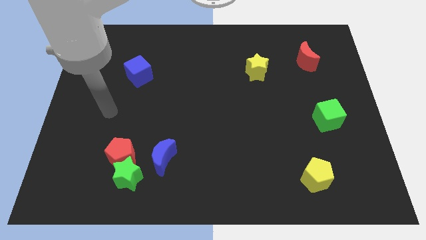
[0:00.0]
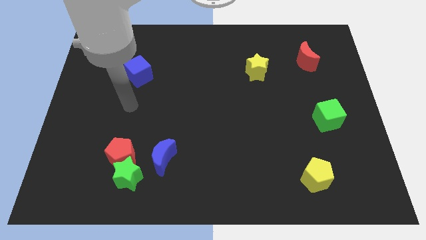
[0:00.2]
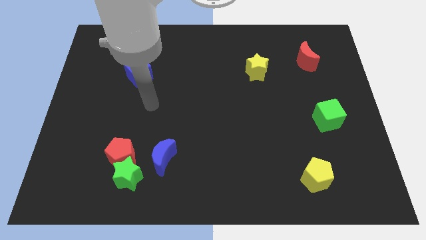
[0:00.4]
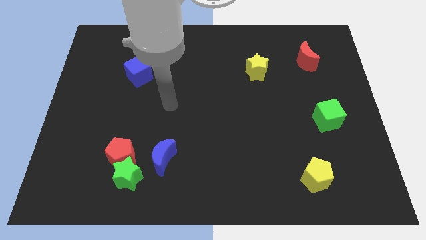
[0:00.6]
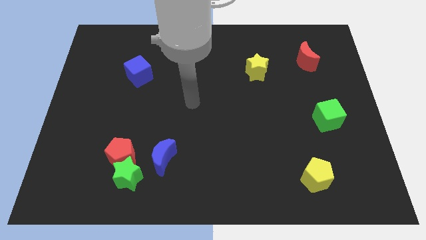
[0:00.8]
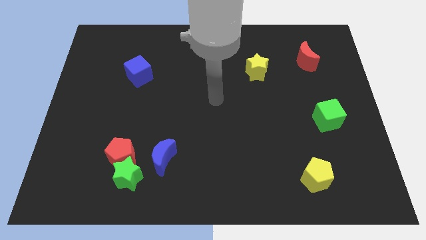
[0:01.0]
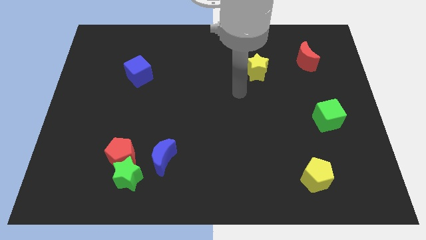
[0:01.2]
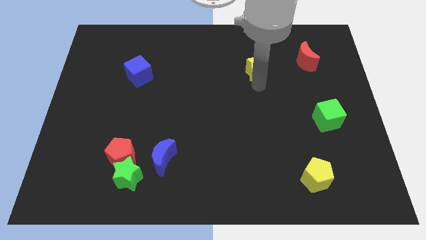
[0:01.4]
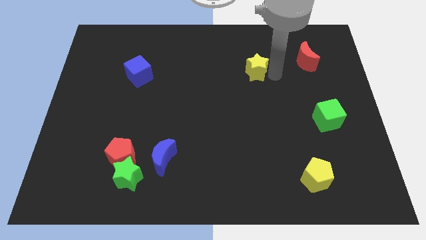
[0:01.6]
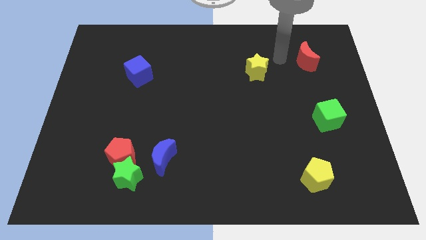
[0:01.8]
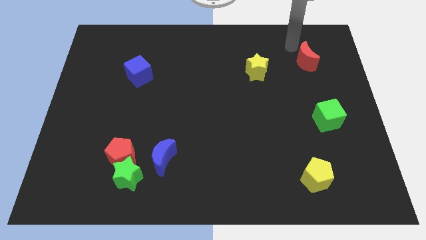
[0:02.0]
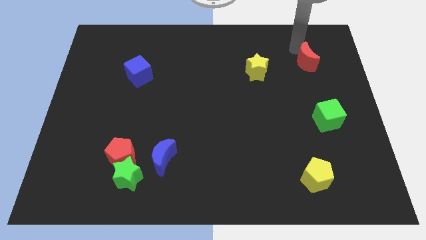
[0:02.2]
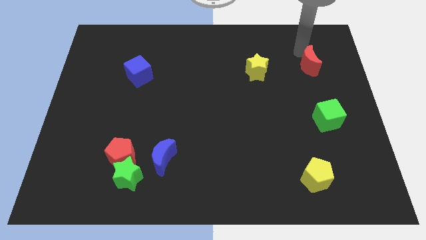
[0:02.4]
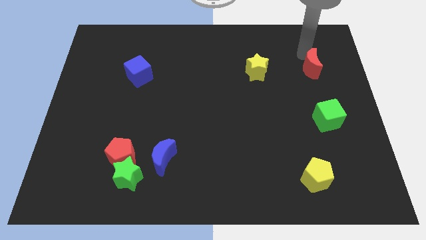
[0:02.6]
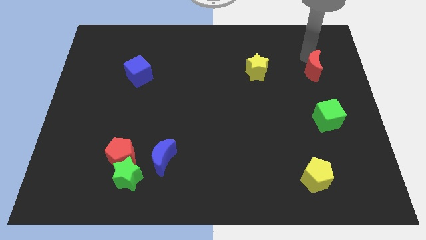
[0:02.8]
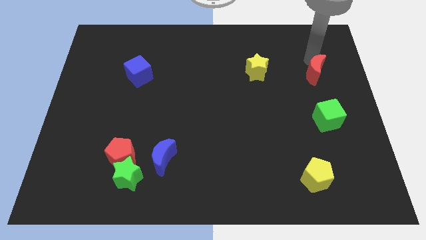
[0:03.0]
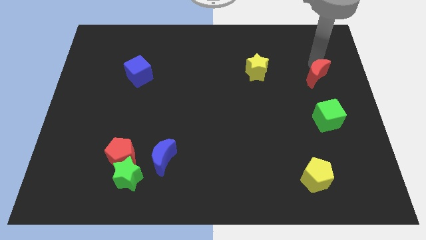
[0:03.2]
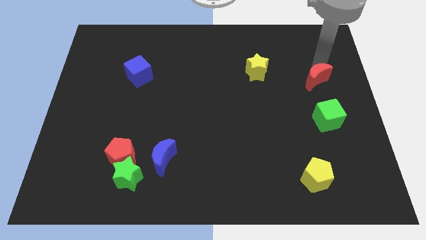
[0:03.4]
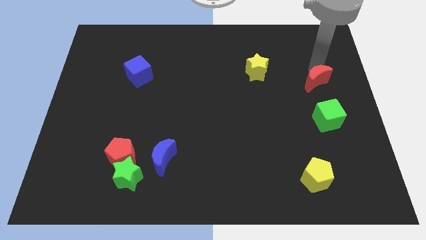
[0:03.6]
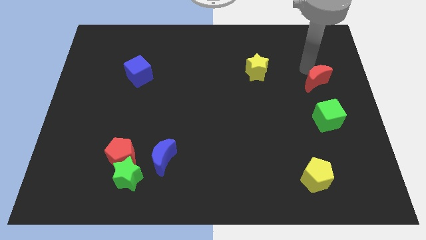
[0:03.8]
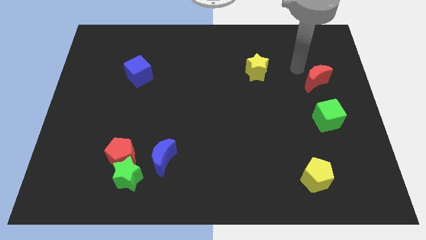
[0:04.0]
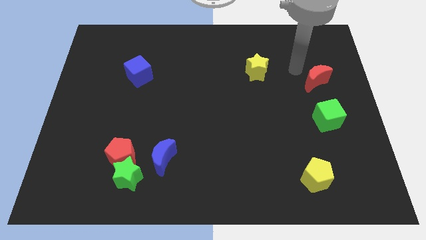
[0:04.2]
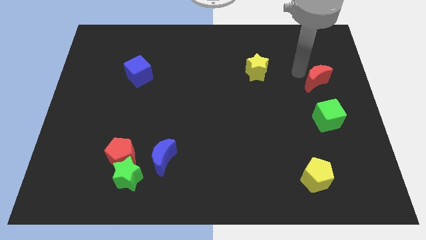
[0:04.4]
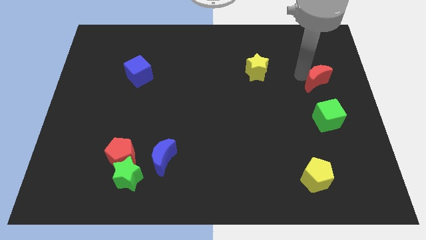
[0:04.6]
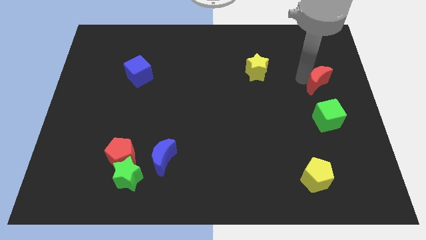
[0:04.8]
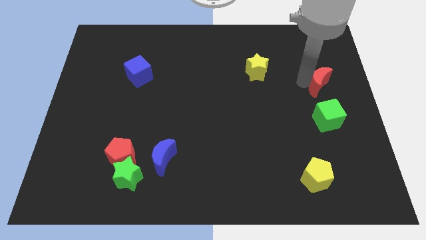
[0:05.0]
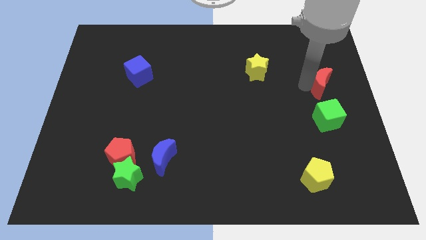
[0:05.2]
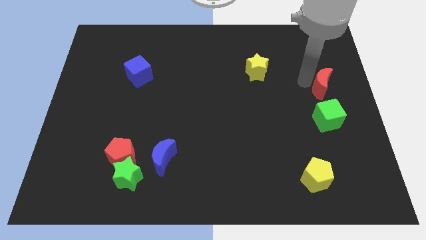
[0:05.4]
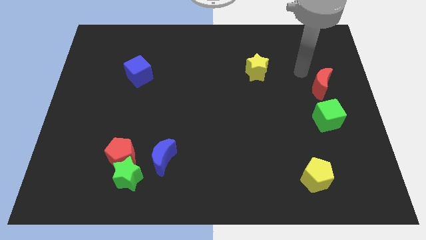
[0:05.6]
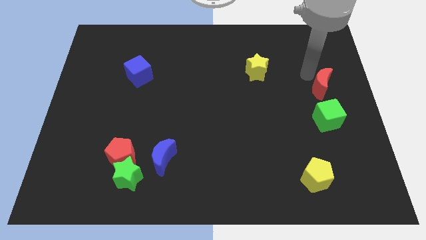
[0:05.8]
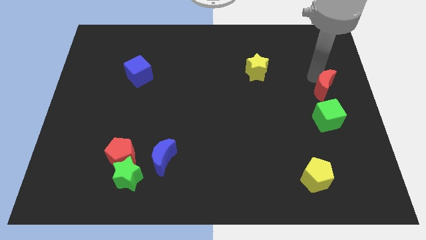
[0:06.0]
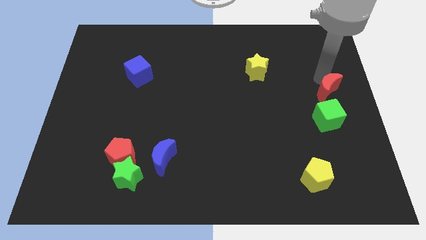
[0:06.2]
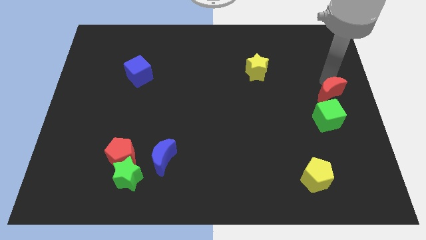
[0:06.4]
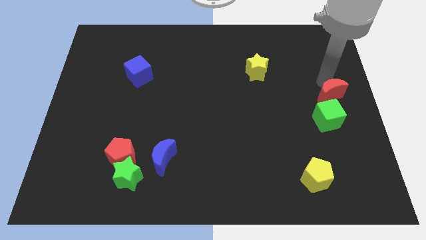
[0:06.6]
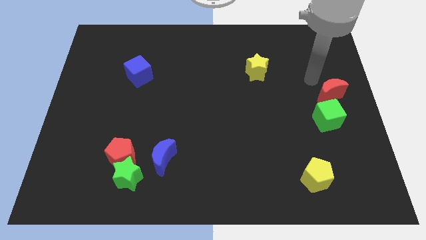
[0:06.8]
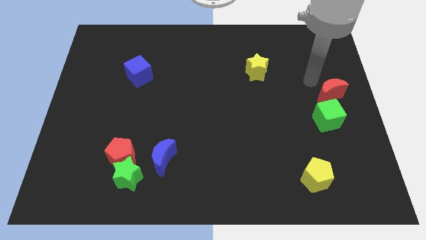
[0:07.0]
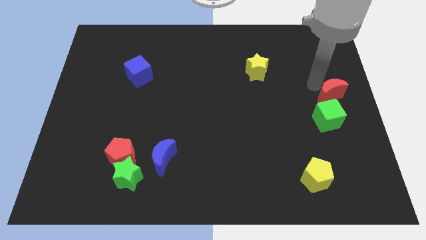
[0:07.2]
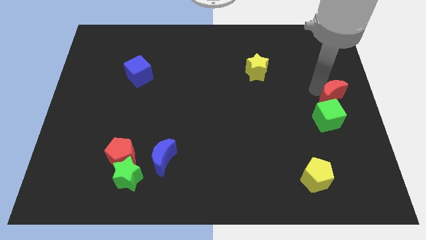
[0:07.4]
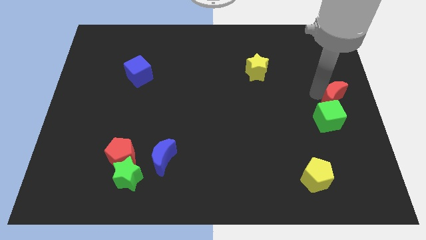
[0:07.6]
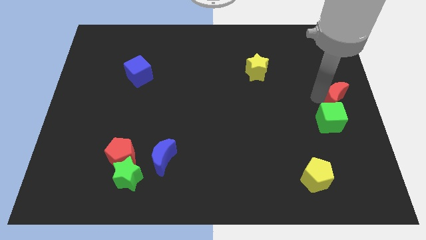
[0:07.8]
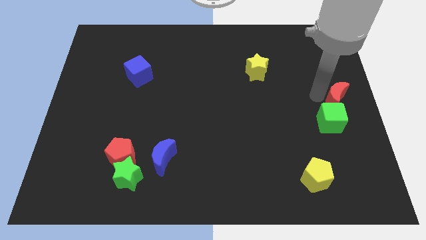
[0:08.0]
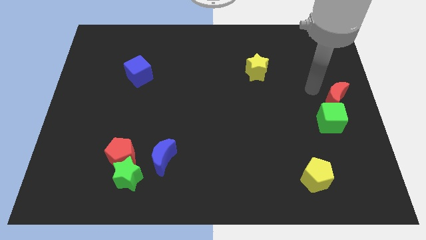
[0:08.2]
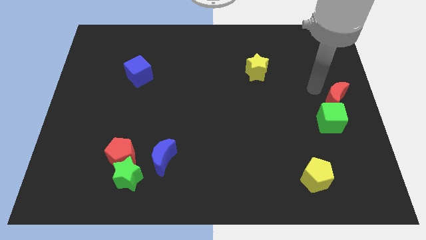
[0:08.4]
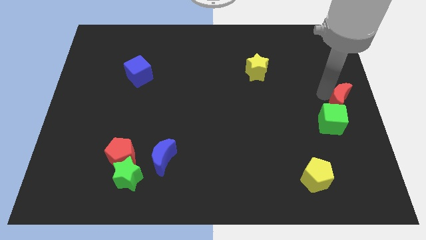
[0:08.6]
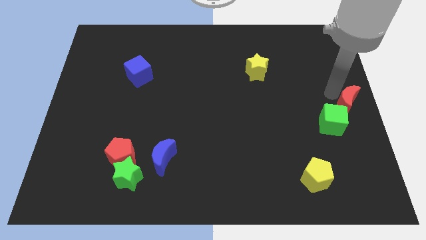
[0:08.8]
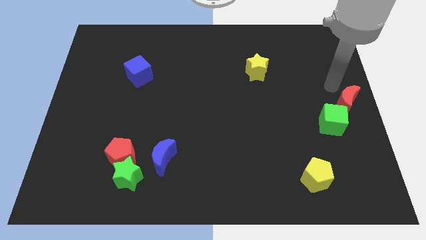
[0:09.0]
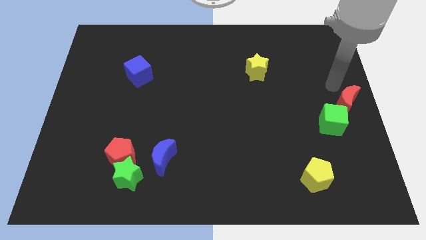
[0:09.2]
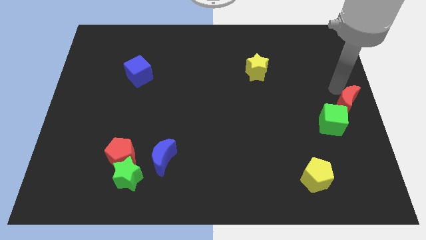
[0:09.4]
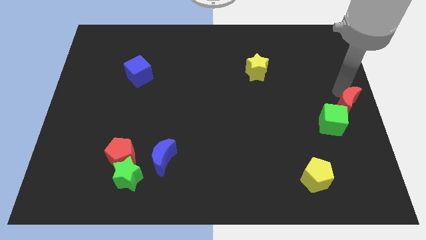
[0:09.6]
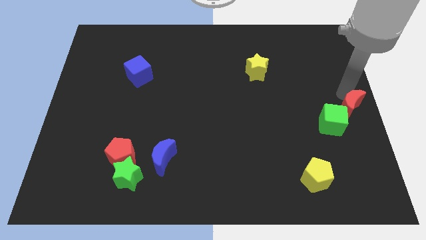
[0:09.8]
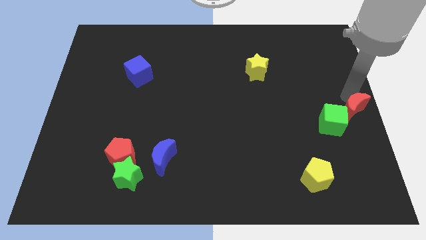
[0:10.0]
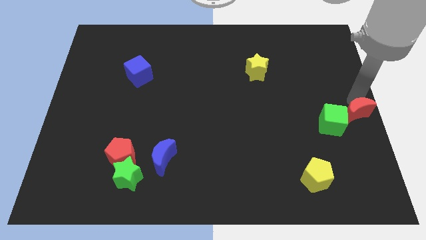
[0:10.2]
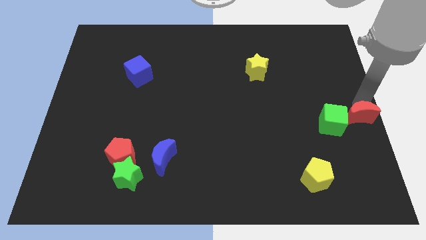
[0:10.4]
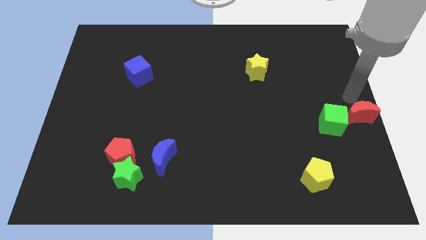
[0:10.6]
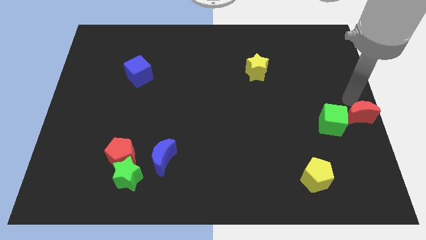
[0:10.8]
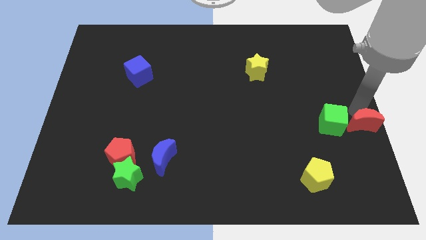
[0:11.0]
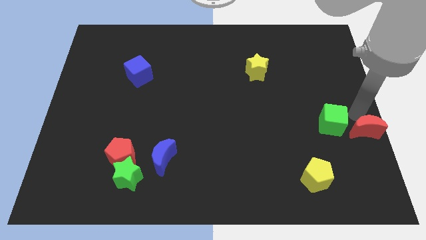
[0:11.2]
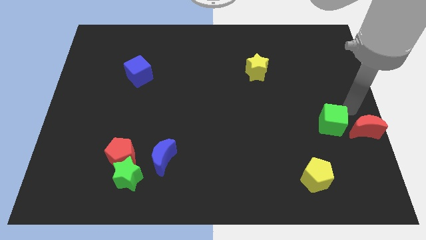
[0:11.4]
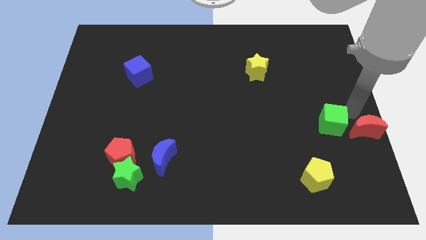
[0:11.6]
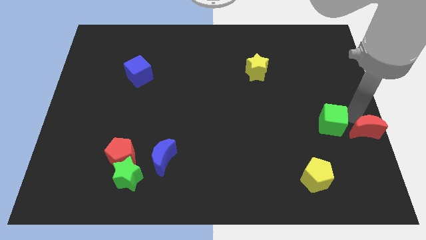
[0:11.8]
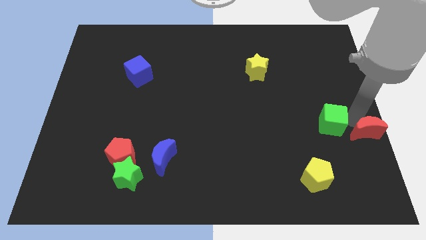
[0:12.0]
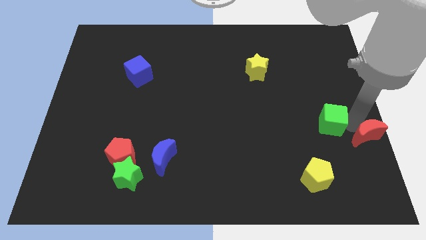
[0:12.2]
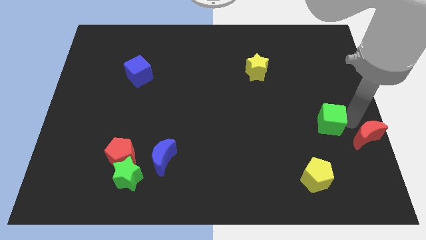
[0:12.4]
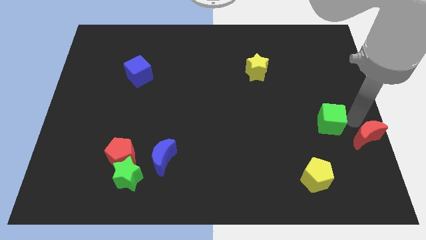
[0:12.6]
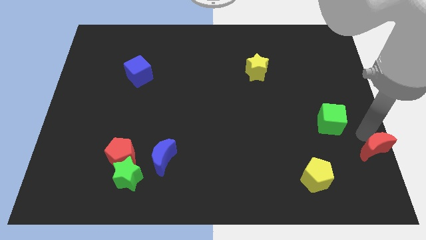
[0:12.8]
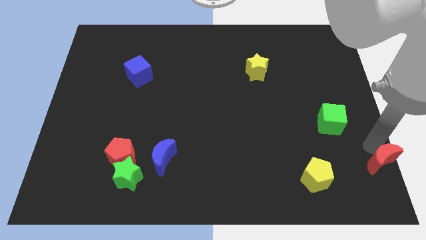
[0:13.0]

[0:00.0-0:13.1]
push the red moon to the lower right corner
